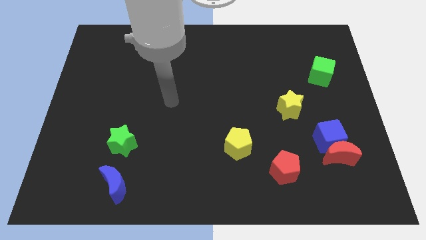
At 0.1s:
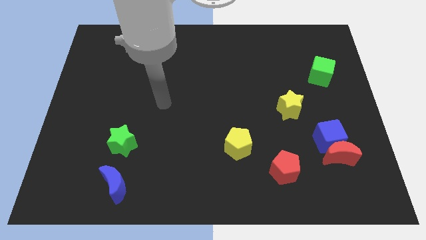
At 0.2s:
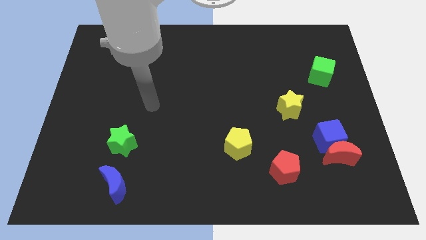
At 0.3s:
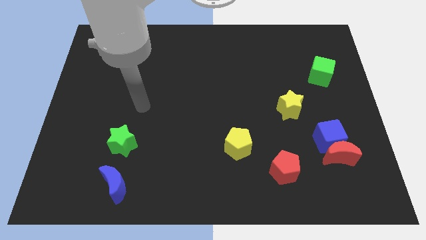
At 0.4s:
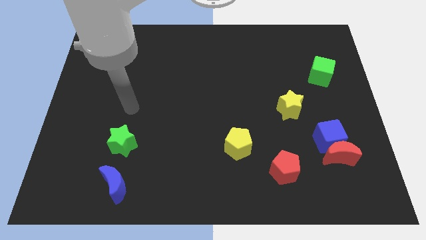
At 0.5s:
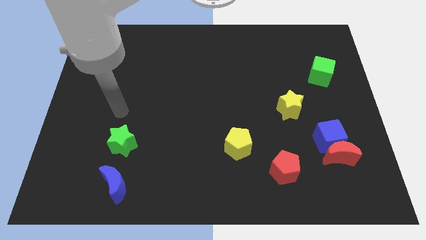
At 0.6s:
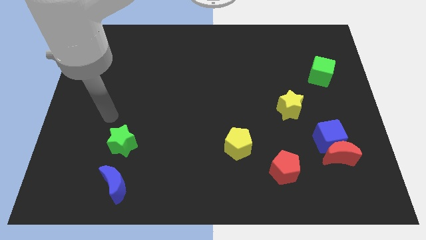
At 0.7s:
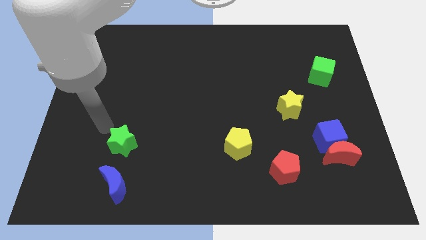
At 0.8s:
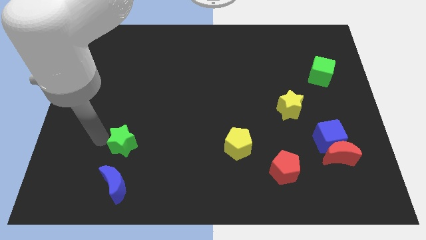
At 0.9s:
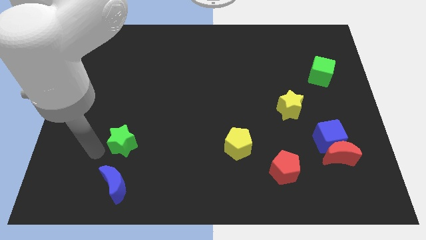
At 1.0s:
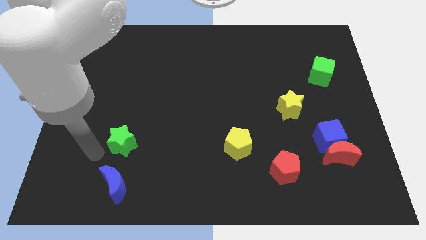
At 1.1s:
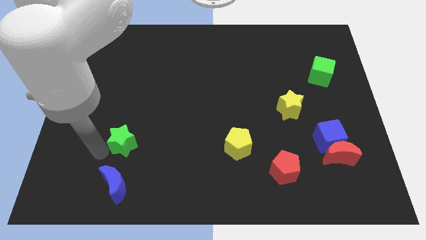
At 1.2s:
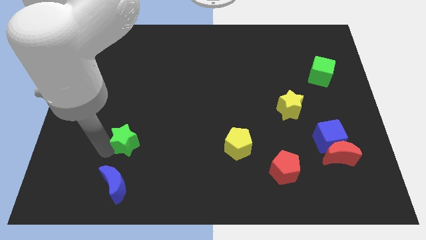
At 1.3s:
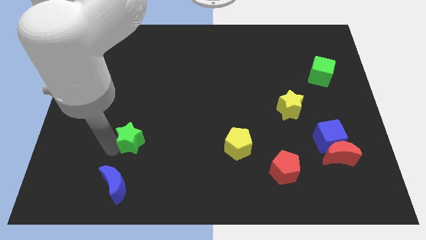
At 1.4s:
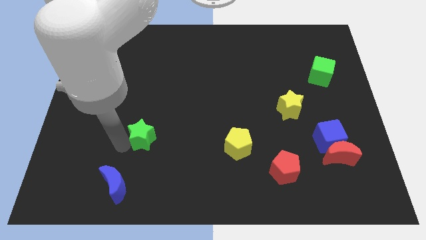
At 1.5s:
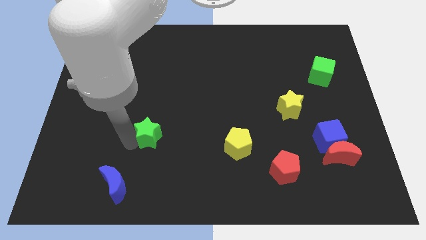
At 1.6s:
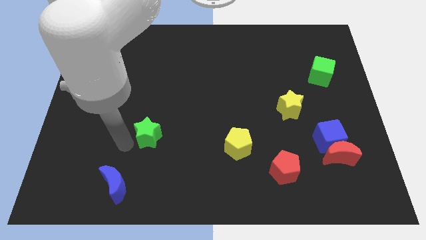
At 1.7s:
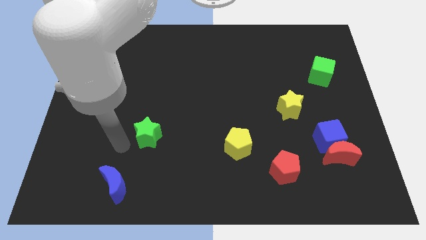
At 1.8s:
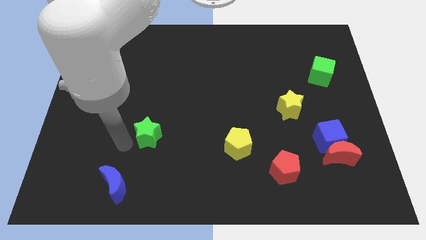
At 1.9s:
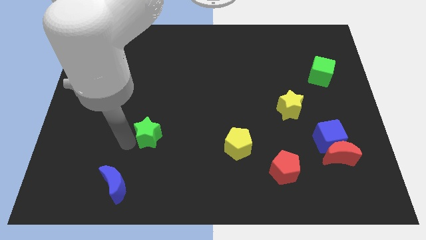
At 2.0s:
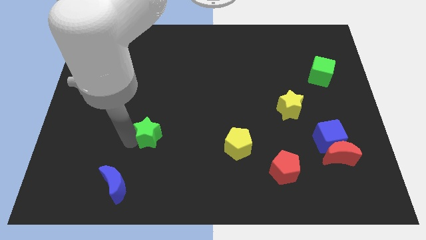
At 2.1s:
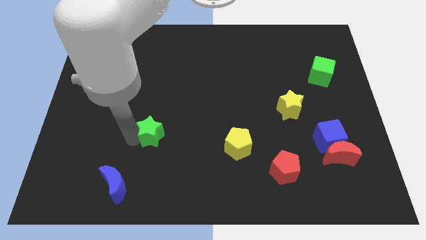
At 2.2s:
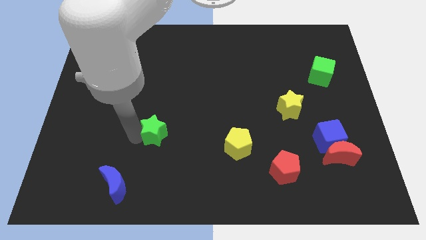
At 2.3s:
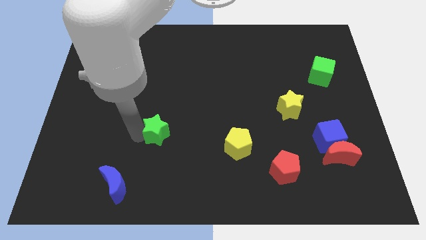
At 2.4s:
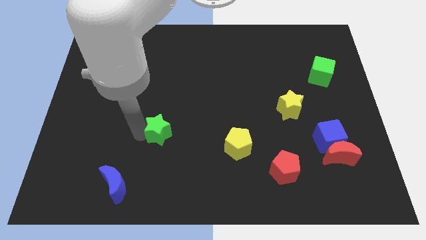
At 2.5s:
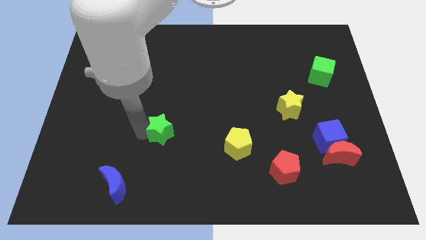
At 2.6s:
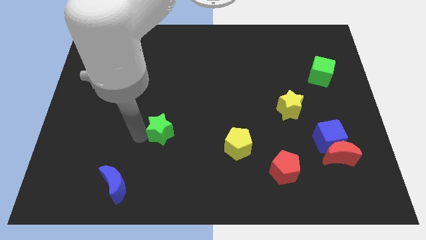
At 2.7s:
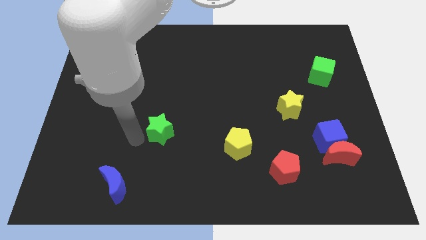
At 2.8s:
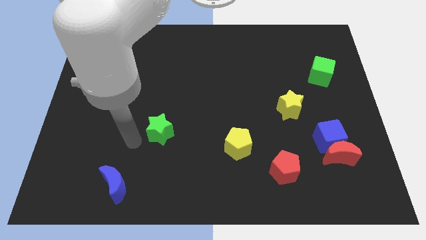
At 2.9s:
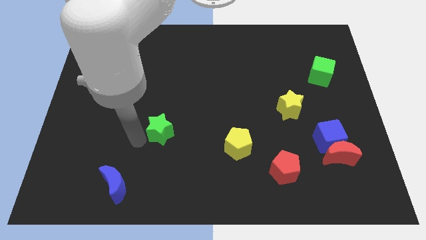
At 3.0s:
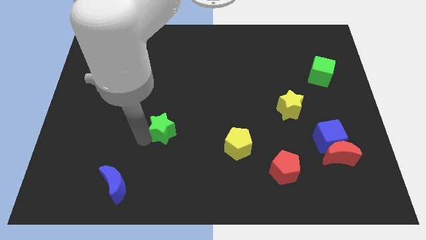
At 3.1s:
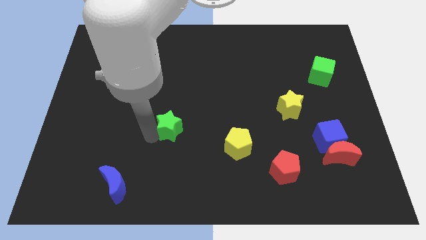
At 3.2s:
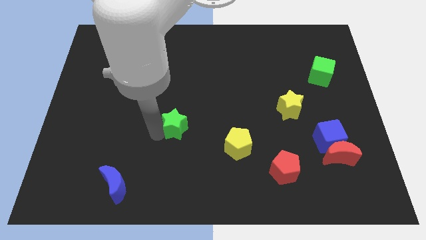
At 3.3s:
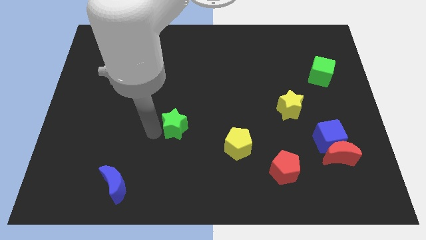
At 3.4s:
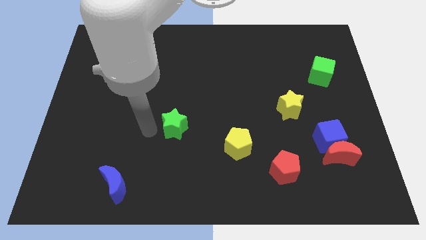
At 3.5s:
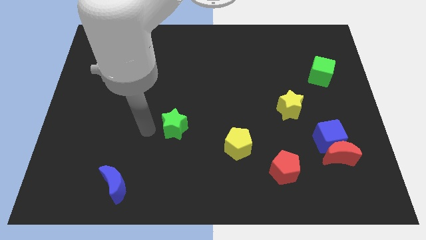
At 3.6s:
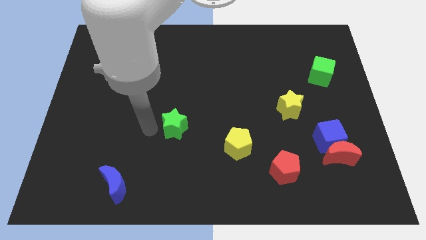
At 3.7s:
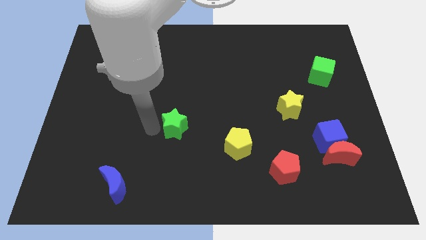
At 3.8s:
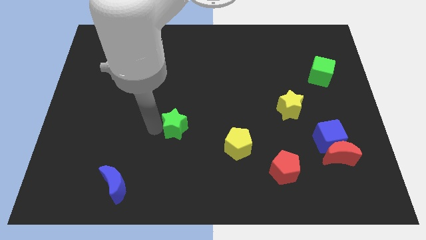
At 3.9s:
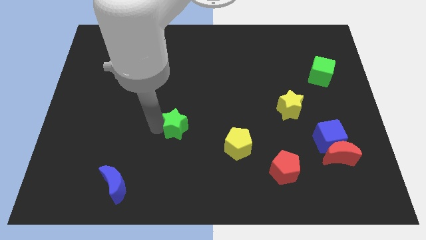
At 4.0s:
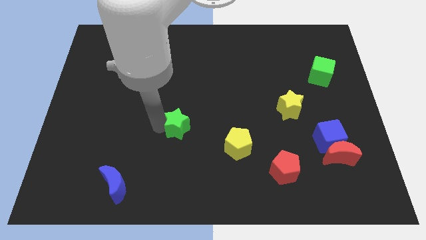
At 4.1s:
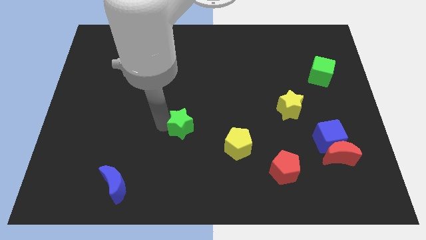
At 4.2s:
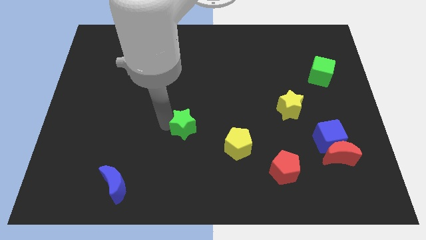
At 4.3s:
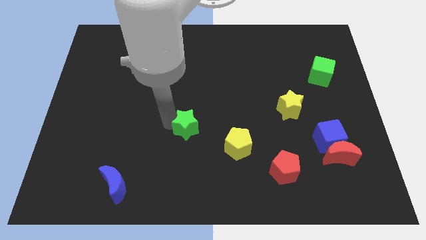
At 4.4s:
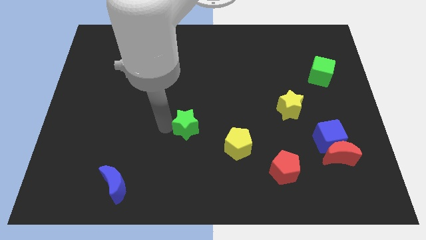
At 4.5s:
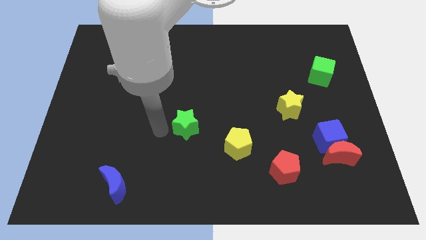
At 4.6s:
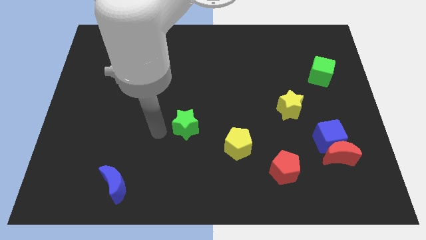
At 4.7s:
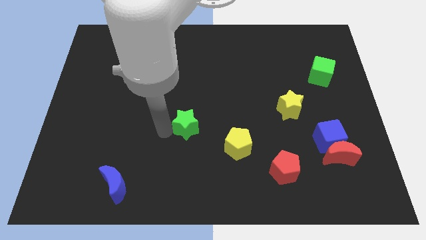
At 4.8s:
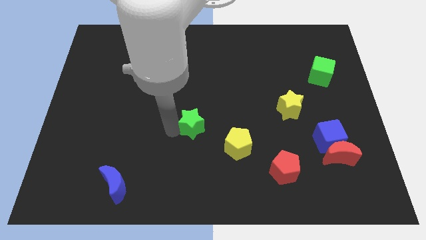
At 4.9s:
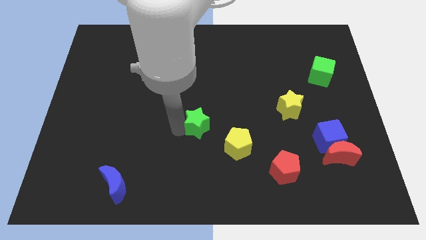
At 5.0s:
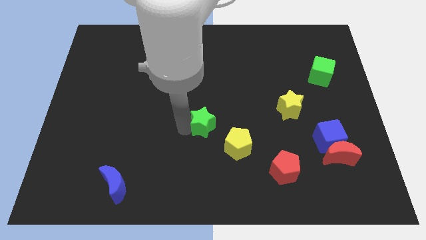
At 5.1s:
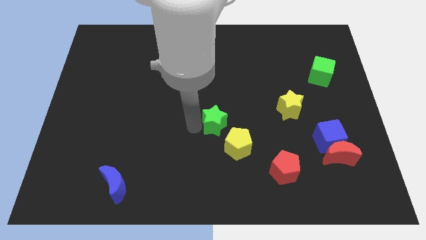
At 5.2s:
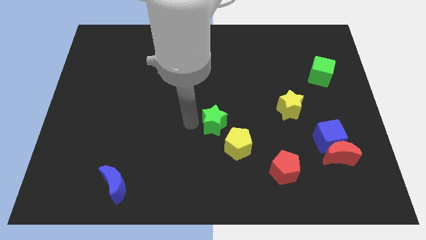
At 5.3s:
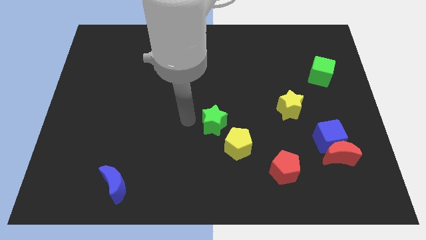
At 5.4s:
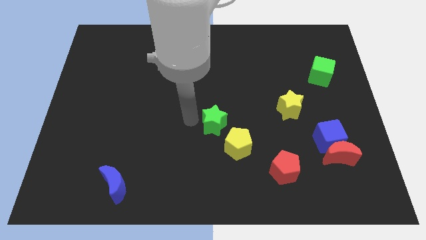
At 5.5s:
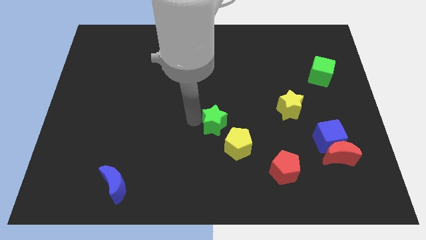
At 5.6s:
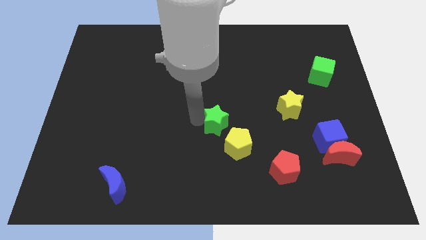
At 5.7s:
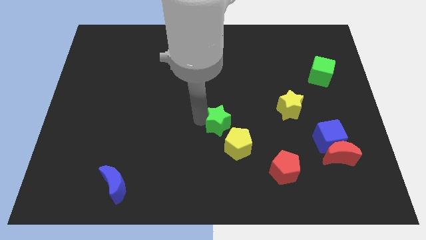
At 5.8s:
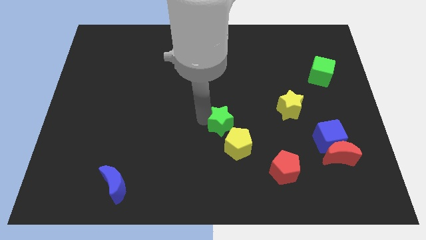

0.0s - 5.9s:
push the green star right

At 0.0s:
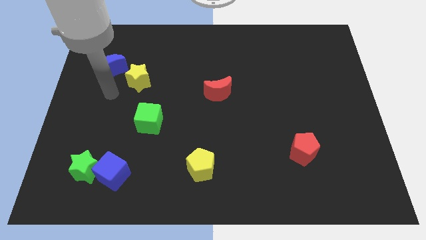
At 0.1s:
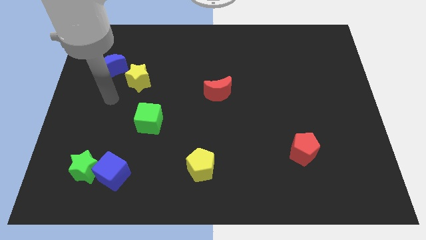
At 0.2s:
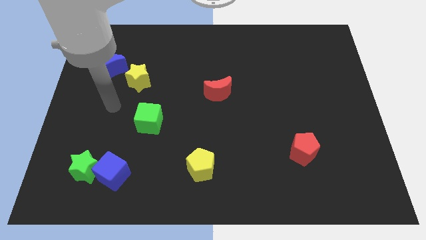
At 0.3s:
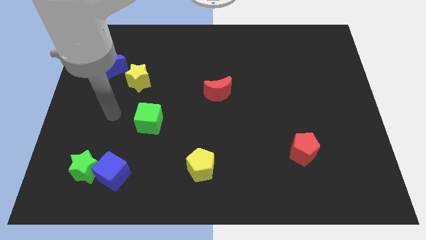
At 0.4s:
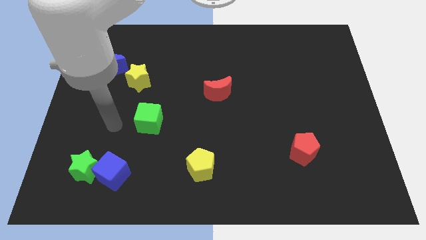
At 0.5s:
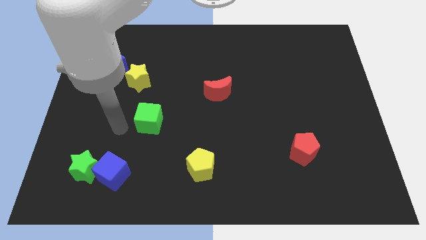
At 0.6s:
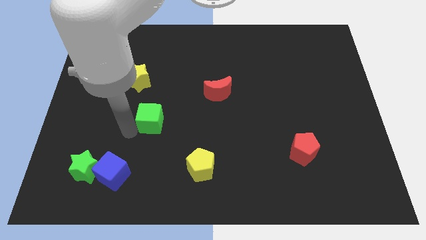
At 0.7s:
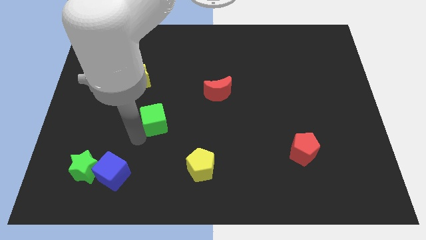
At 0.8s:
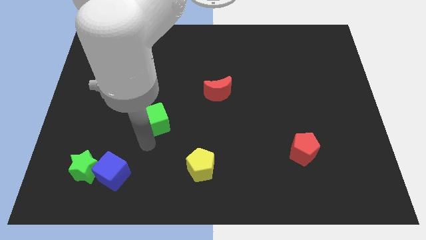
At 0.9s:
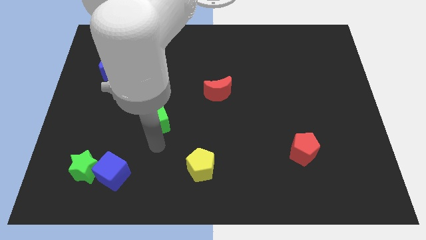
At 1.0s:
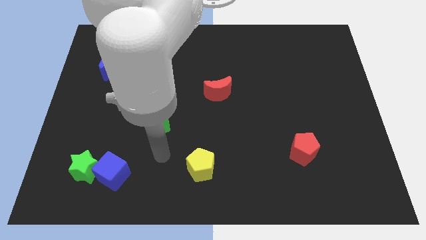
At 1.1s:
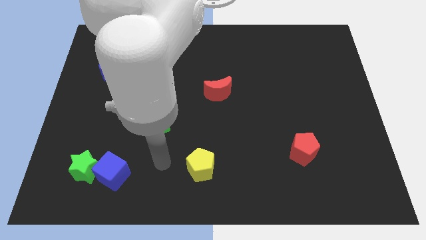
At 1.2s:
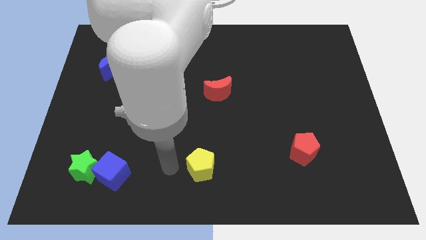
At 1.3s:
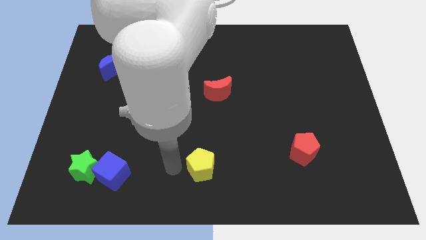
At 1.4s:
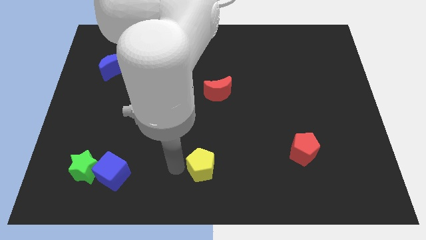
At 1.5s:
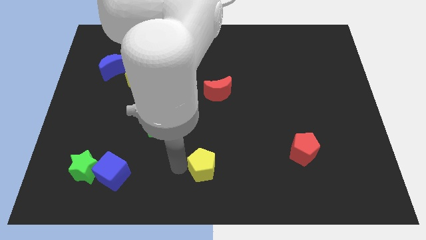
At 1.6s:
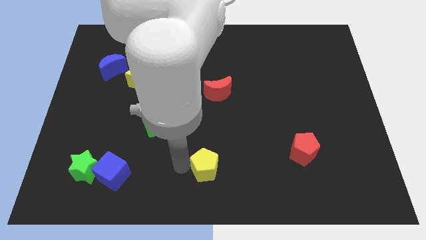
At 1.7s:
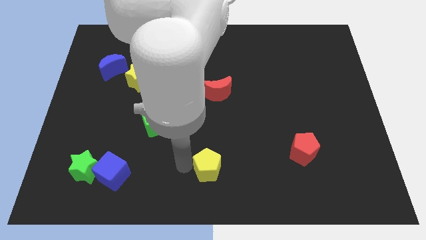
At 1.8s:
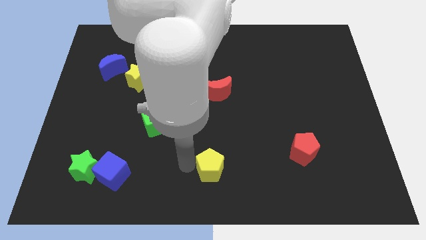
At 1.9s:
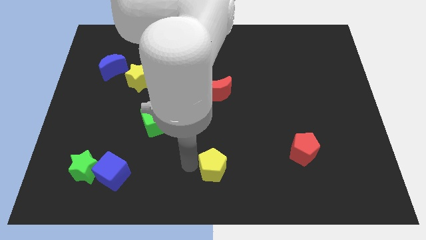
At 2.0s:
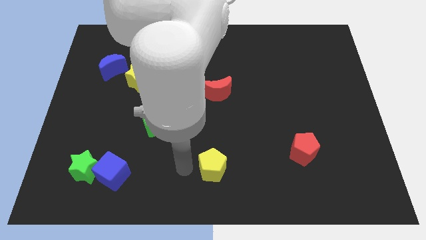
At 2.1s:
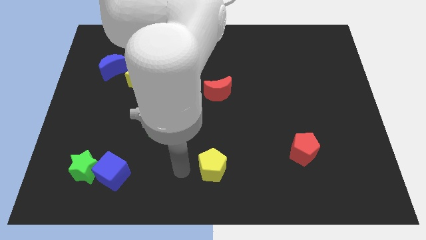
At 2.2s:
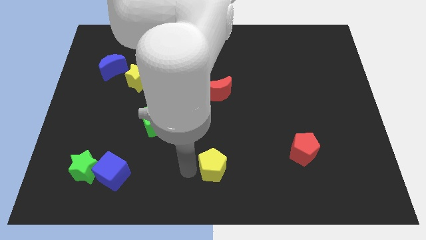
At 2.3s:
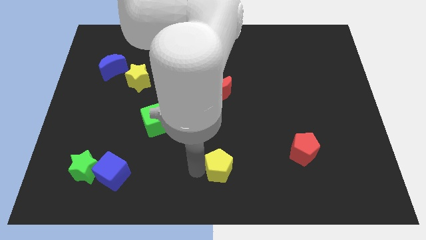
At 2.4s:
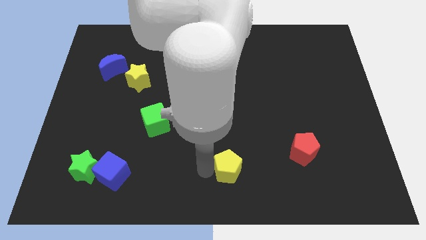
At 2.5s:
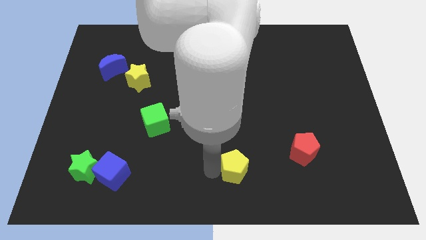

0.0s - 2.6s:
move the yellow pentagon a little to the right
